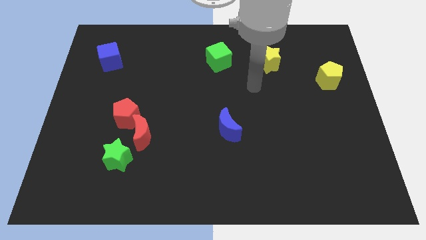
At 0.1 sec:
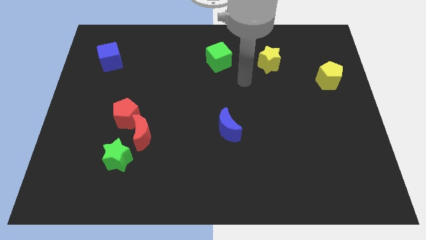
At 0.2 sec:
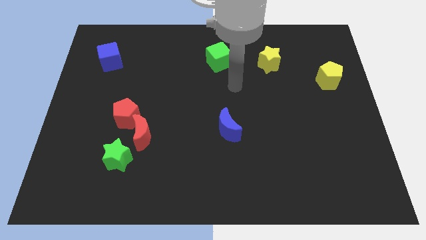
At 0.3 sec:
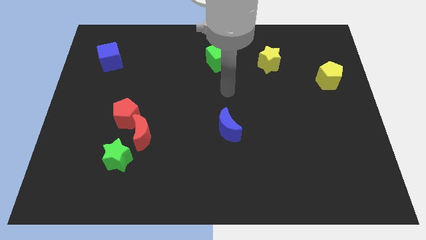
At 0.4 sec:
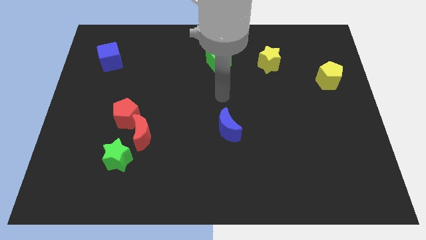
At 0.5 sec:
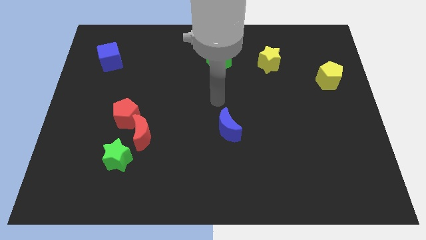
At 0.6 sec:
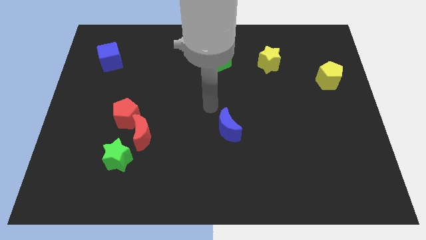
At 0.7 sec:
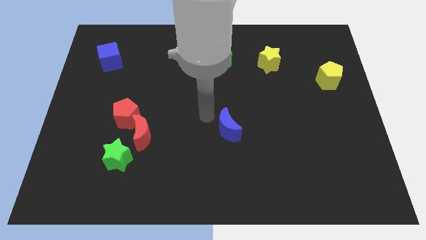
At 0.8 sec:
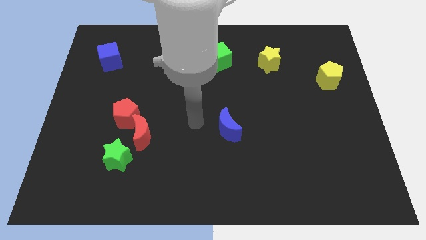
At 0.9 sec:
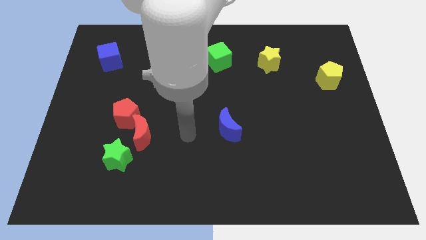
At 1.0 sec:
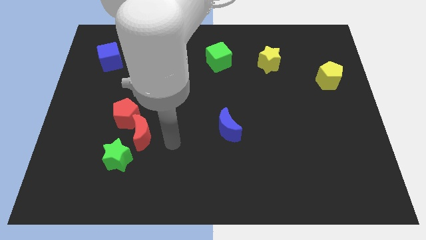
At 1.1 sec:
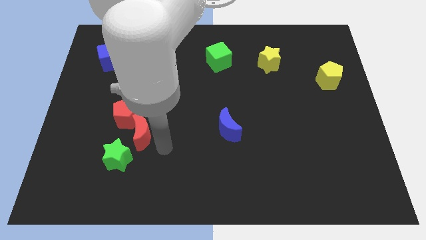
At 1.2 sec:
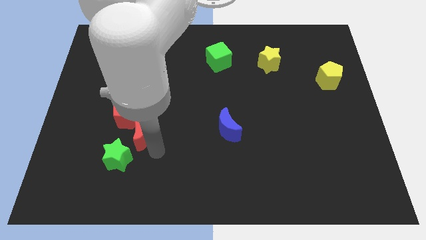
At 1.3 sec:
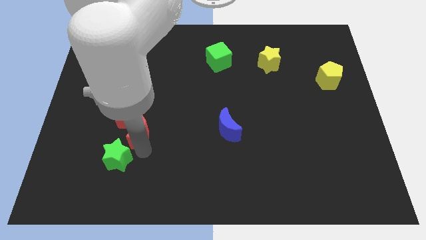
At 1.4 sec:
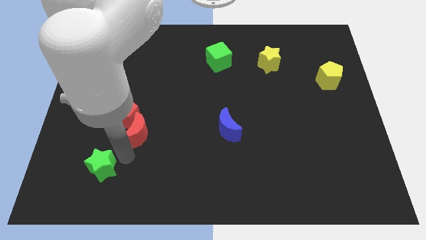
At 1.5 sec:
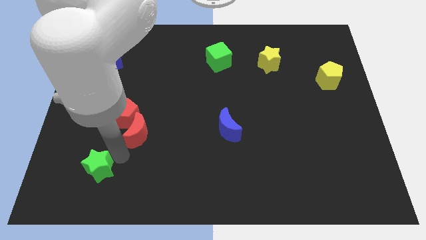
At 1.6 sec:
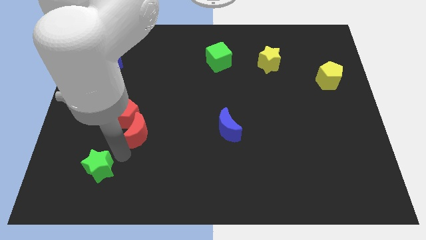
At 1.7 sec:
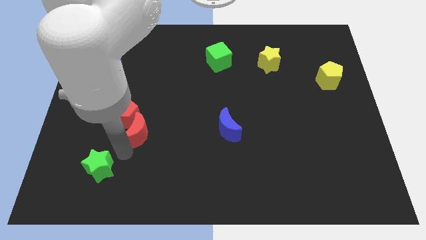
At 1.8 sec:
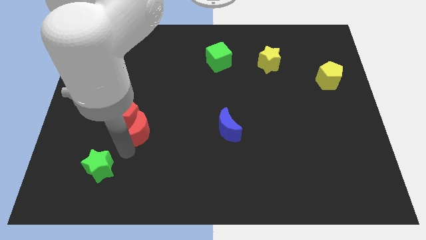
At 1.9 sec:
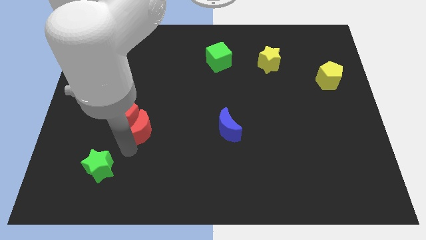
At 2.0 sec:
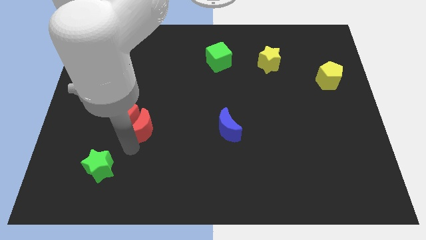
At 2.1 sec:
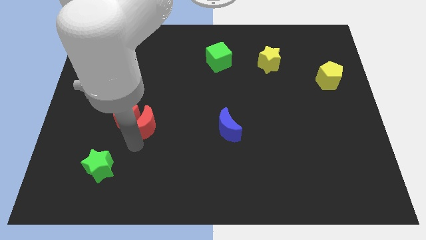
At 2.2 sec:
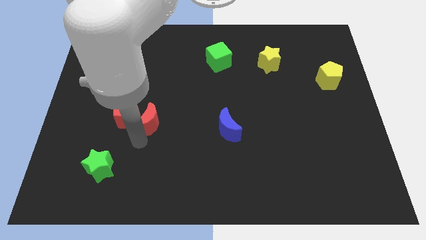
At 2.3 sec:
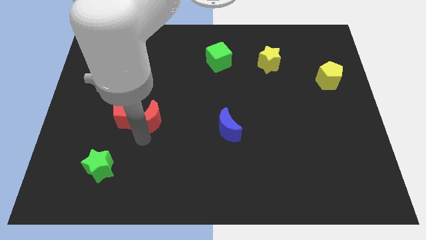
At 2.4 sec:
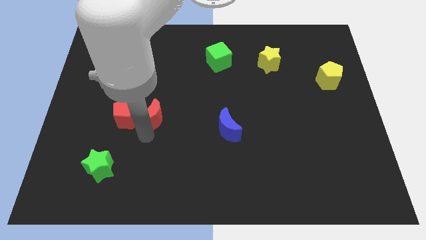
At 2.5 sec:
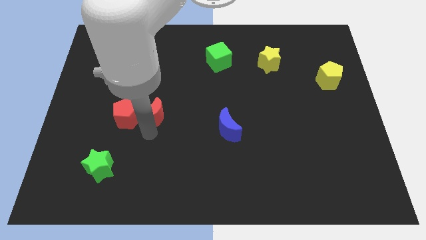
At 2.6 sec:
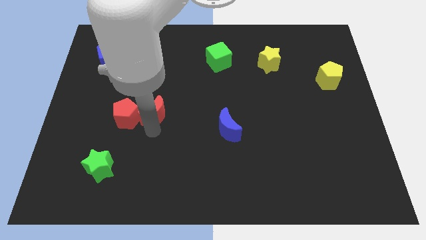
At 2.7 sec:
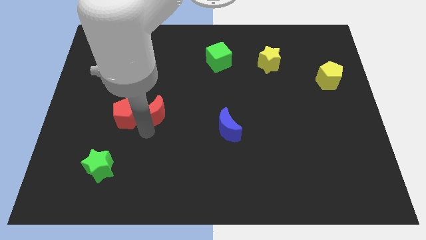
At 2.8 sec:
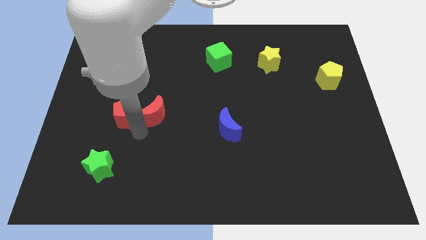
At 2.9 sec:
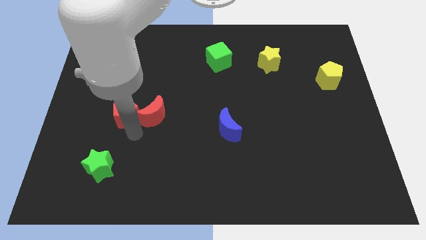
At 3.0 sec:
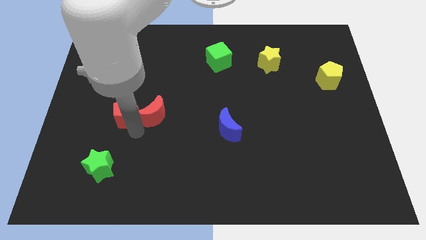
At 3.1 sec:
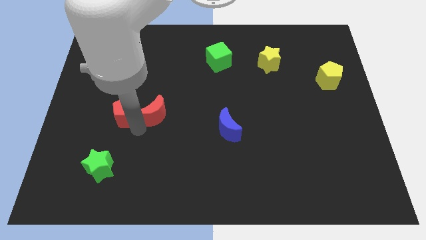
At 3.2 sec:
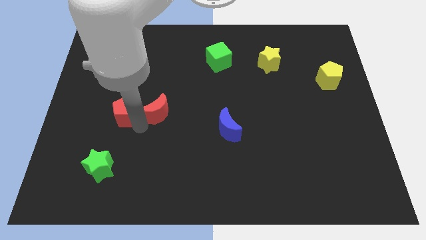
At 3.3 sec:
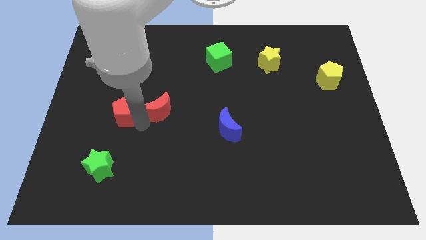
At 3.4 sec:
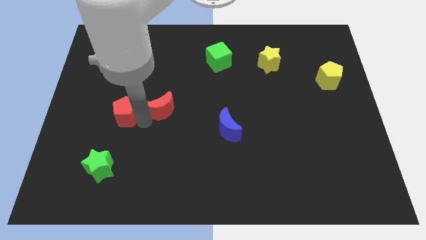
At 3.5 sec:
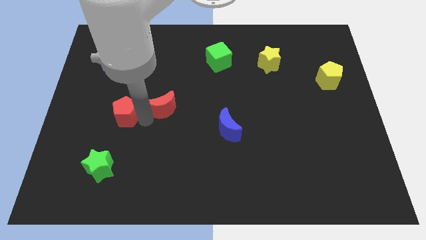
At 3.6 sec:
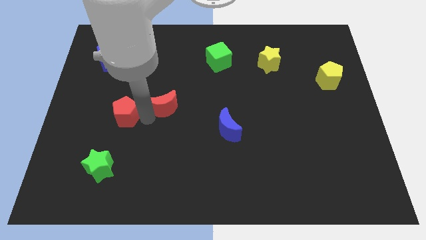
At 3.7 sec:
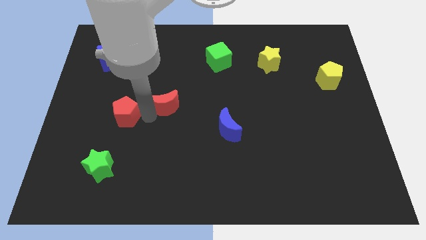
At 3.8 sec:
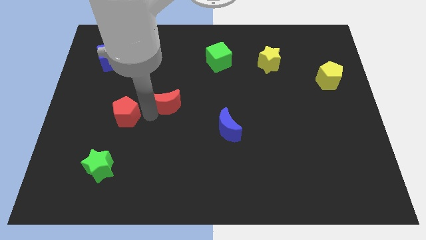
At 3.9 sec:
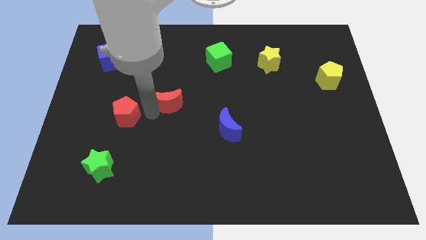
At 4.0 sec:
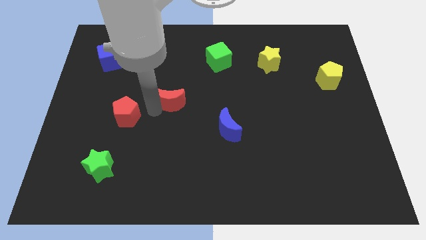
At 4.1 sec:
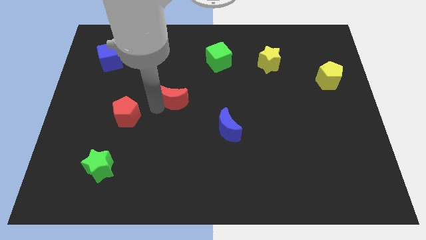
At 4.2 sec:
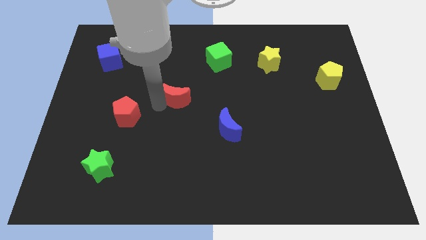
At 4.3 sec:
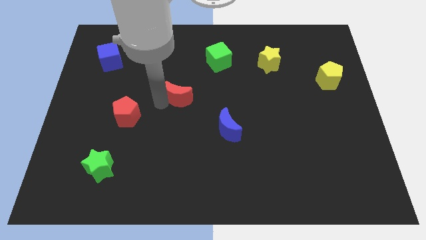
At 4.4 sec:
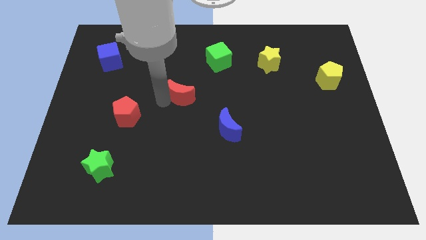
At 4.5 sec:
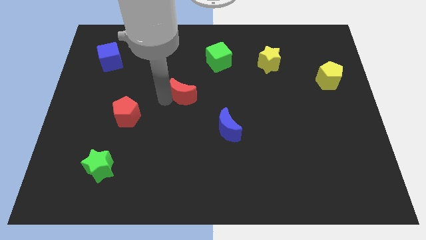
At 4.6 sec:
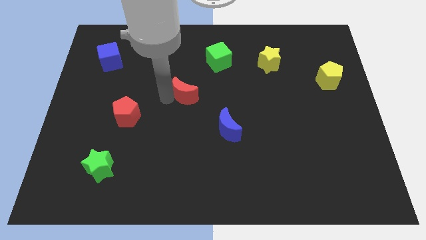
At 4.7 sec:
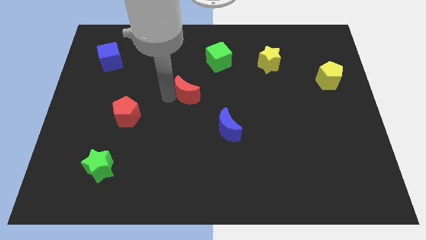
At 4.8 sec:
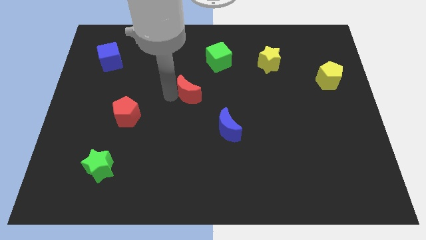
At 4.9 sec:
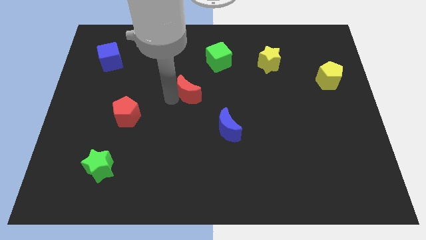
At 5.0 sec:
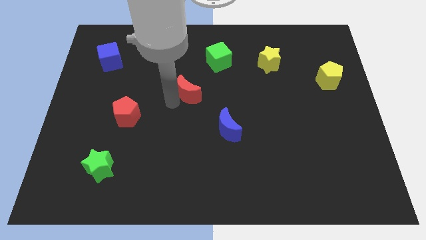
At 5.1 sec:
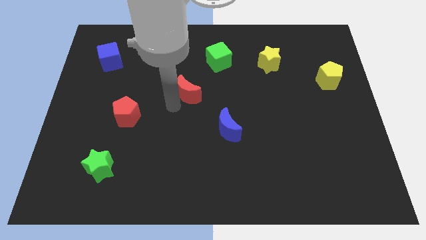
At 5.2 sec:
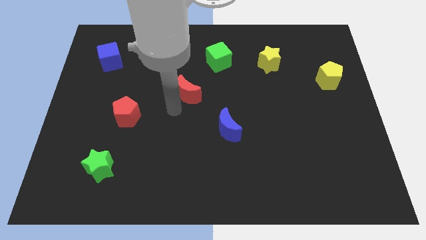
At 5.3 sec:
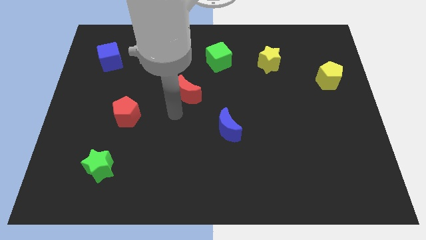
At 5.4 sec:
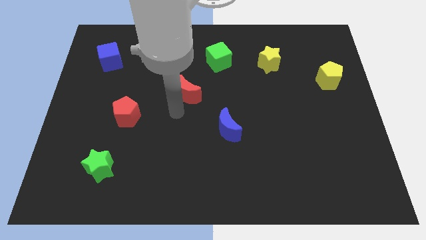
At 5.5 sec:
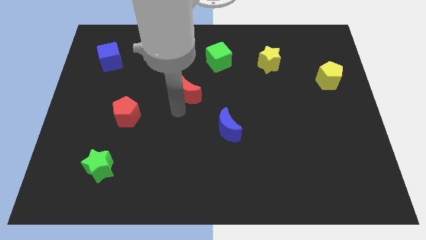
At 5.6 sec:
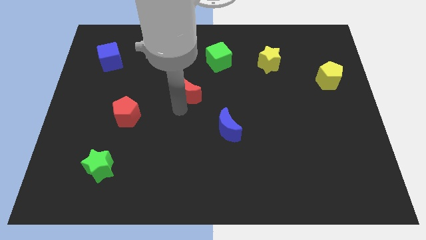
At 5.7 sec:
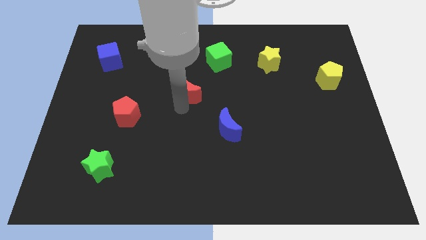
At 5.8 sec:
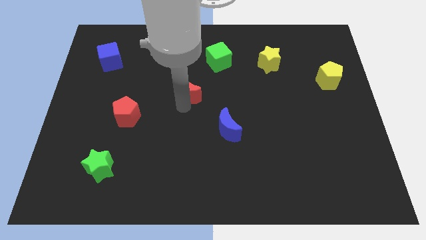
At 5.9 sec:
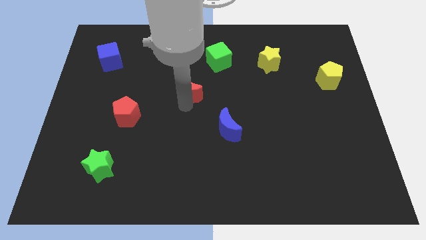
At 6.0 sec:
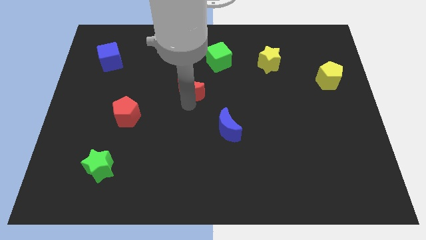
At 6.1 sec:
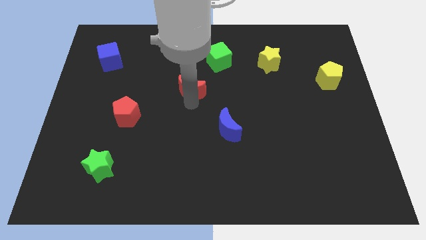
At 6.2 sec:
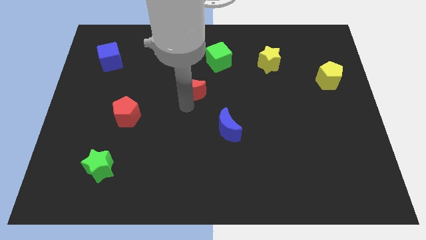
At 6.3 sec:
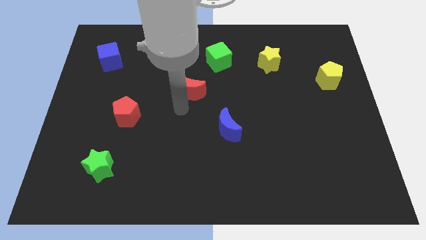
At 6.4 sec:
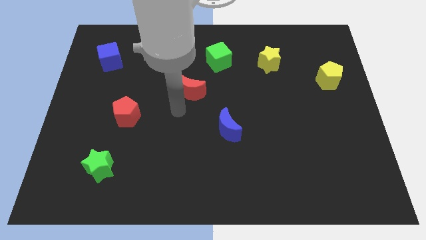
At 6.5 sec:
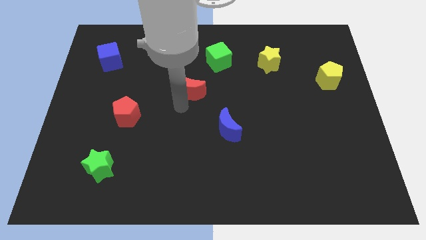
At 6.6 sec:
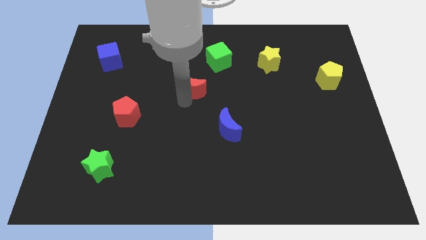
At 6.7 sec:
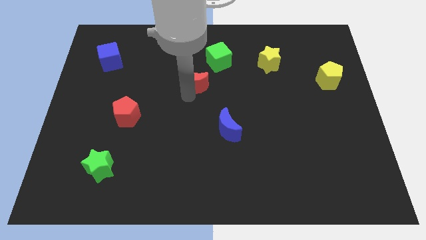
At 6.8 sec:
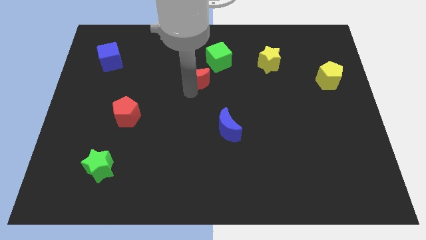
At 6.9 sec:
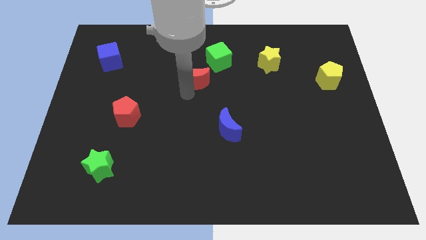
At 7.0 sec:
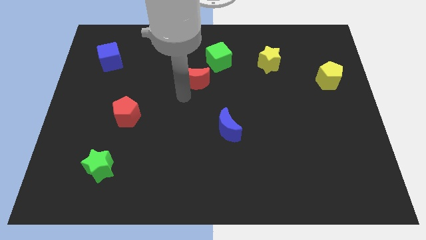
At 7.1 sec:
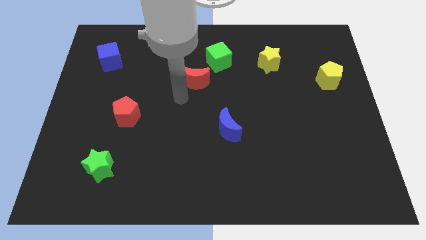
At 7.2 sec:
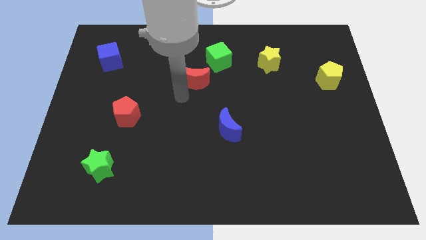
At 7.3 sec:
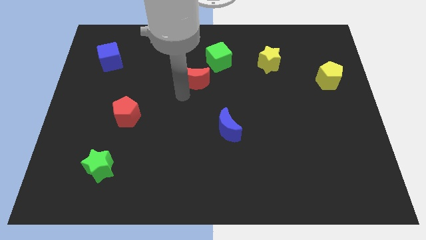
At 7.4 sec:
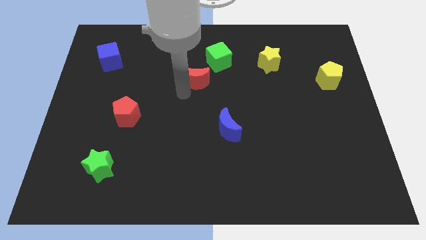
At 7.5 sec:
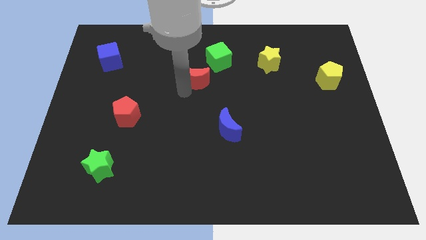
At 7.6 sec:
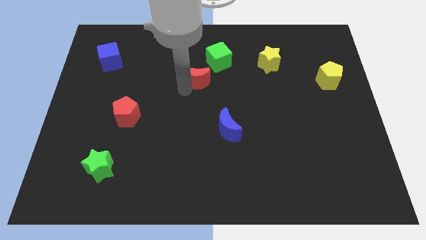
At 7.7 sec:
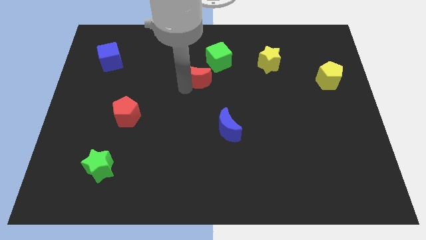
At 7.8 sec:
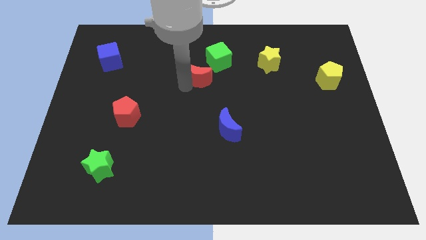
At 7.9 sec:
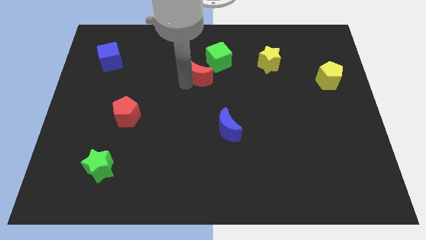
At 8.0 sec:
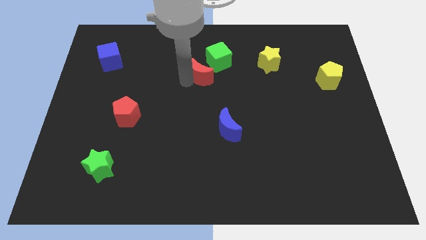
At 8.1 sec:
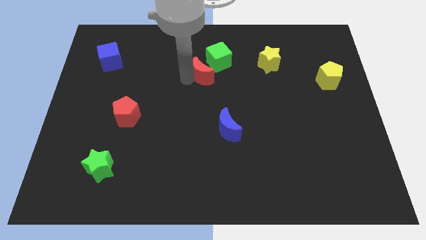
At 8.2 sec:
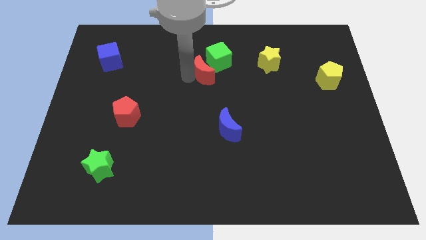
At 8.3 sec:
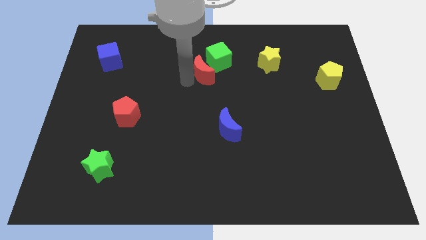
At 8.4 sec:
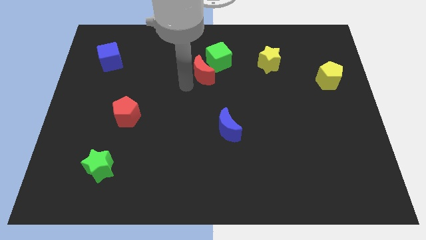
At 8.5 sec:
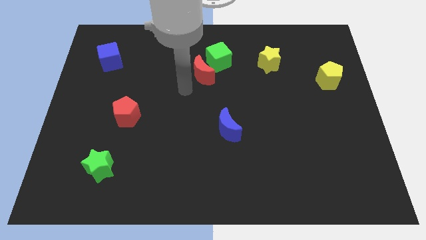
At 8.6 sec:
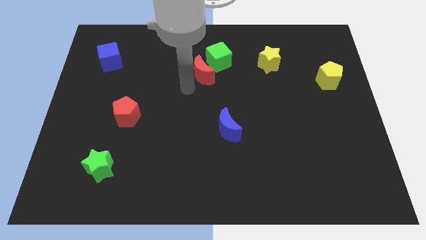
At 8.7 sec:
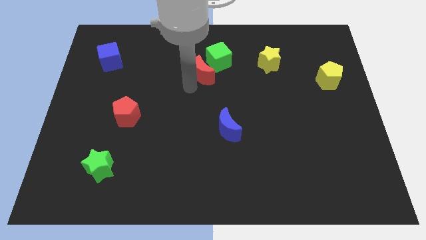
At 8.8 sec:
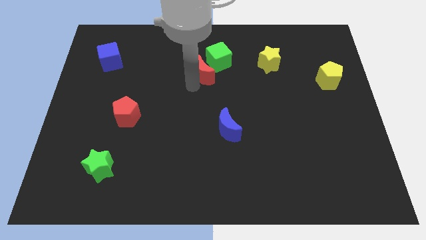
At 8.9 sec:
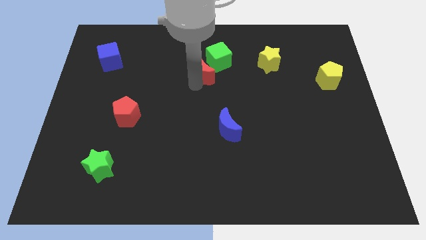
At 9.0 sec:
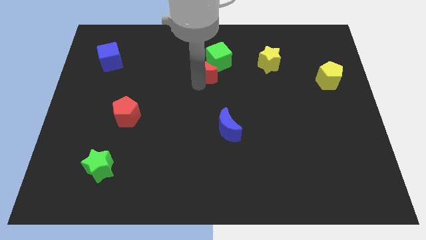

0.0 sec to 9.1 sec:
push the red moon to the green cube
